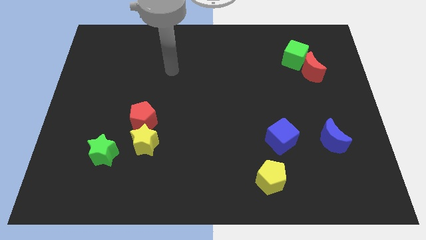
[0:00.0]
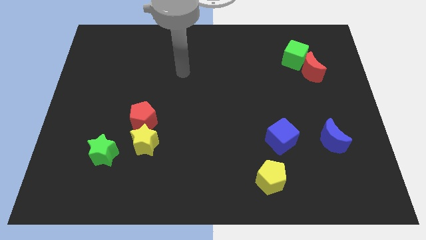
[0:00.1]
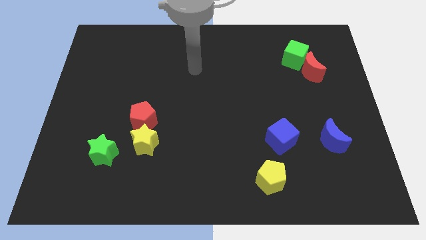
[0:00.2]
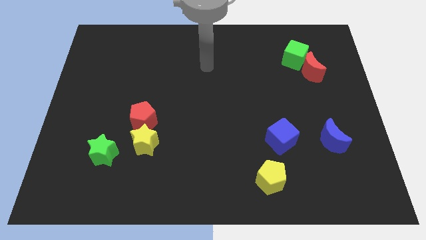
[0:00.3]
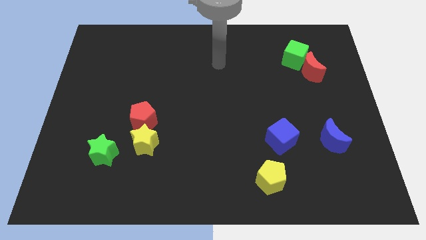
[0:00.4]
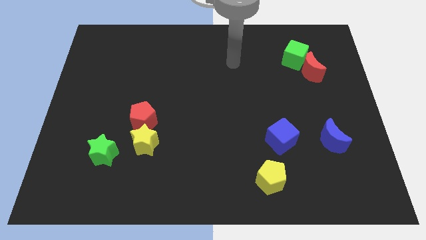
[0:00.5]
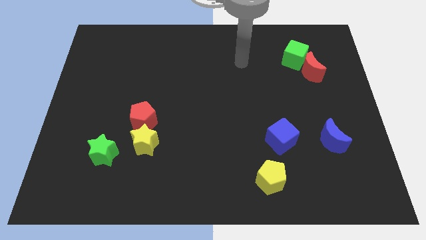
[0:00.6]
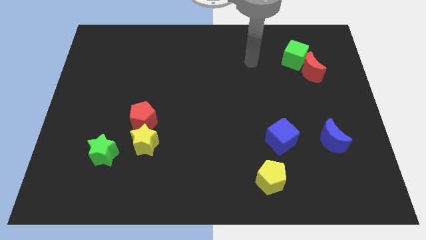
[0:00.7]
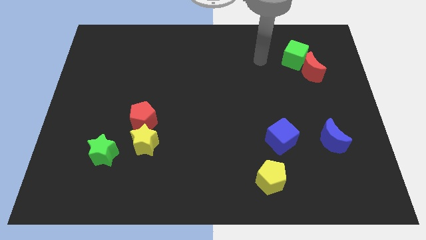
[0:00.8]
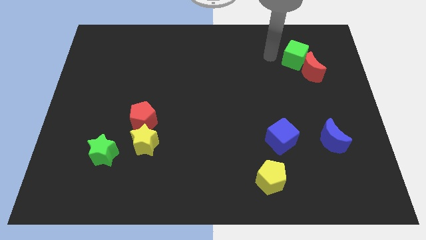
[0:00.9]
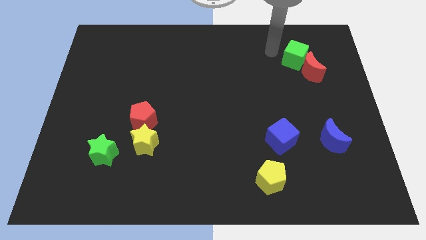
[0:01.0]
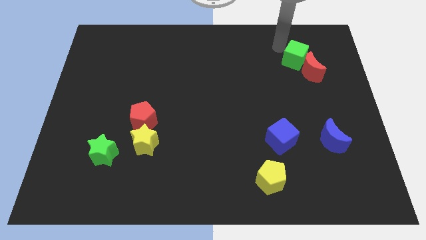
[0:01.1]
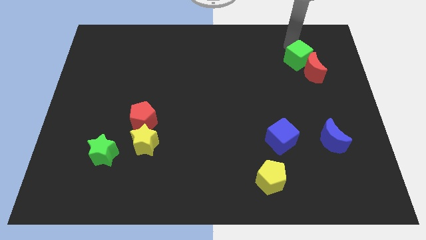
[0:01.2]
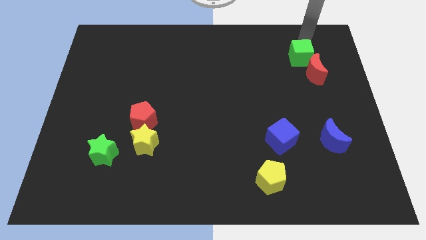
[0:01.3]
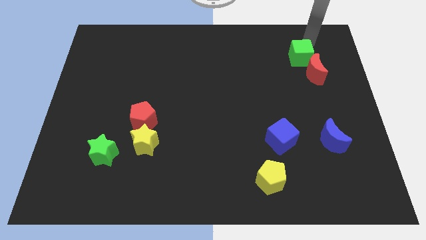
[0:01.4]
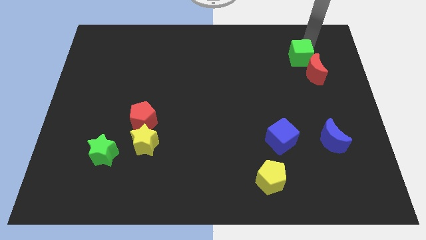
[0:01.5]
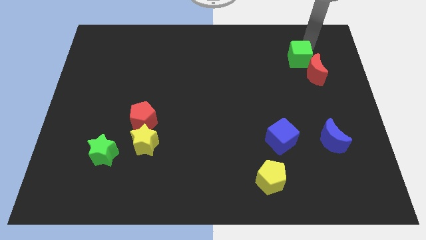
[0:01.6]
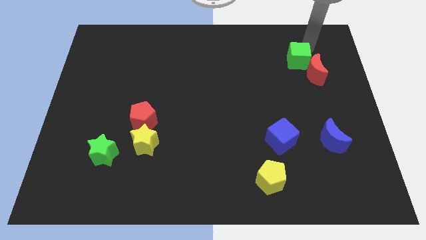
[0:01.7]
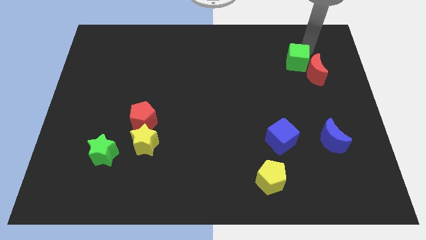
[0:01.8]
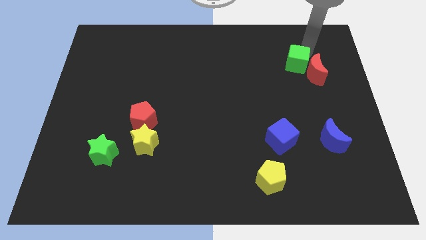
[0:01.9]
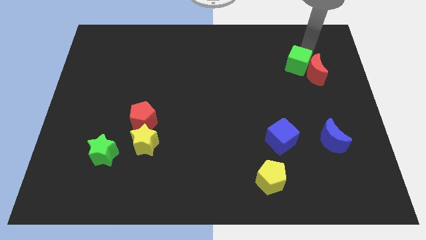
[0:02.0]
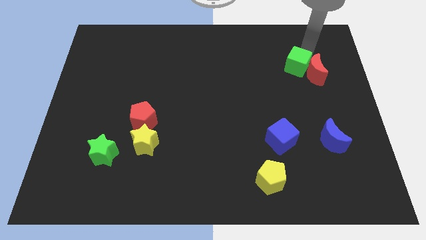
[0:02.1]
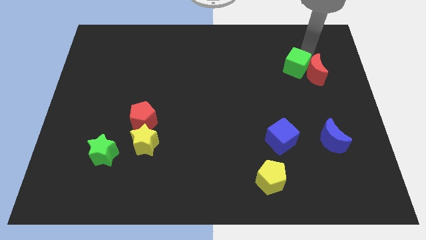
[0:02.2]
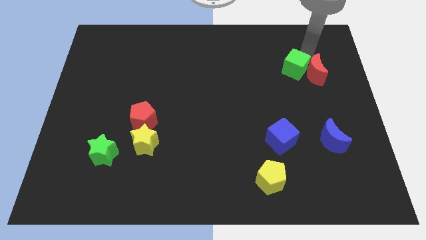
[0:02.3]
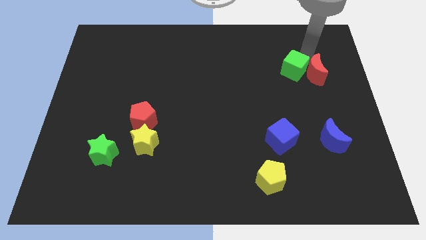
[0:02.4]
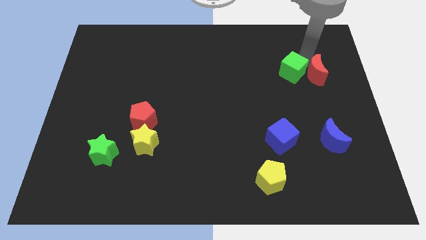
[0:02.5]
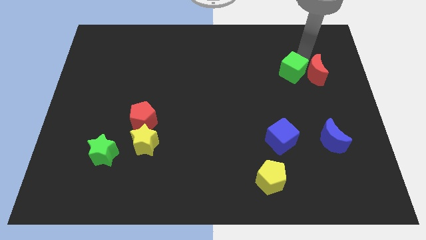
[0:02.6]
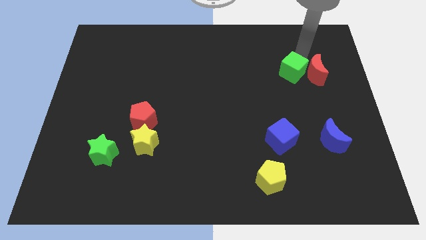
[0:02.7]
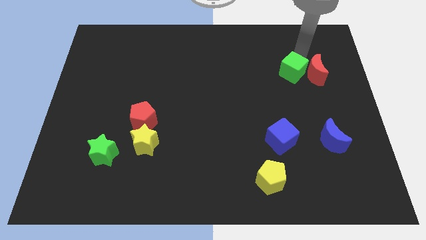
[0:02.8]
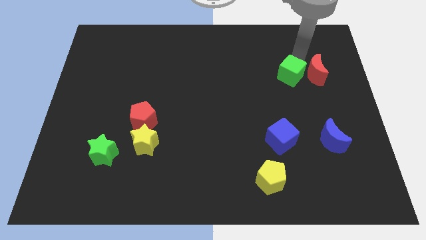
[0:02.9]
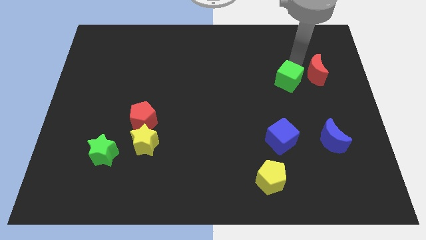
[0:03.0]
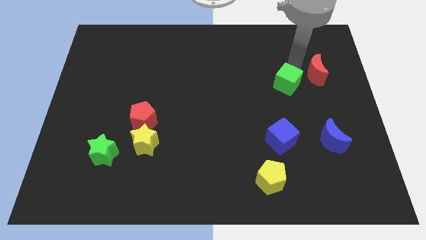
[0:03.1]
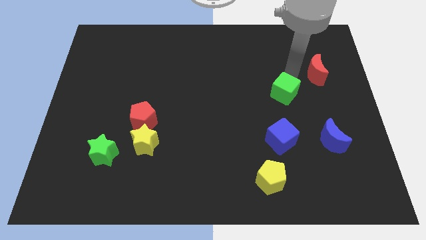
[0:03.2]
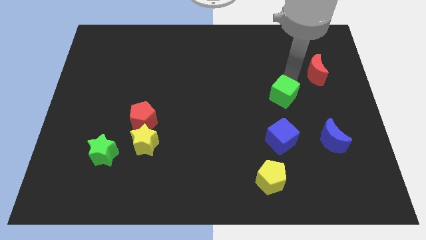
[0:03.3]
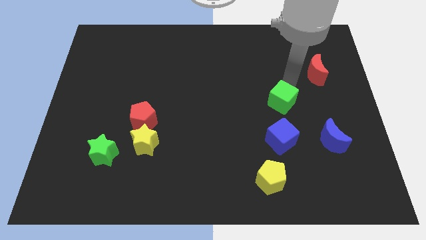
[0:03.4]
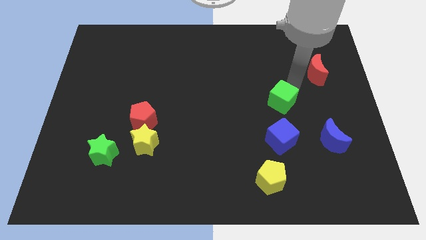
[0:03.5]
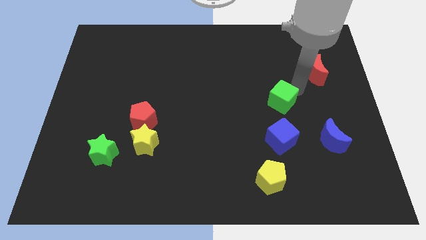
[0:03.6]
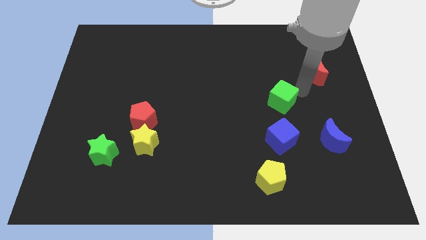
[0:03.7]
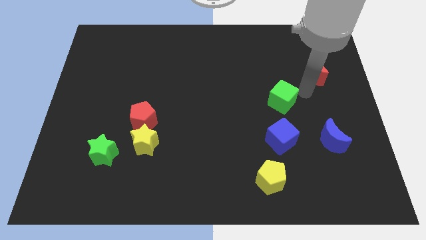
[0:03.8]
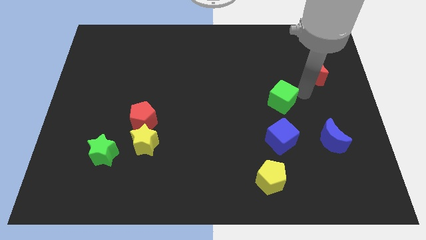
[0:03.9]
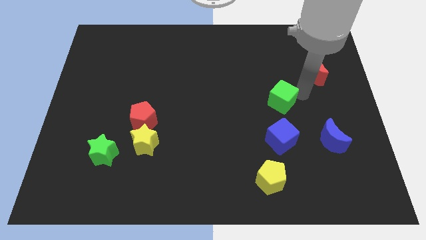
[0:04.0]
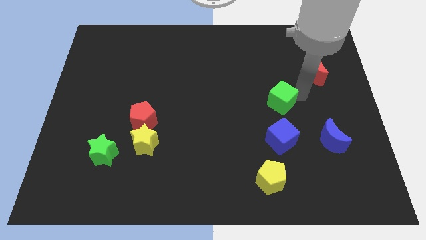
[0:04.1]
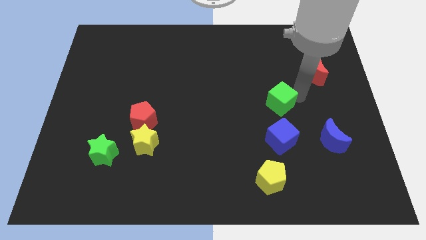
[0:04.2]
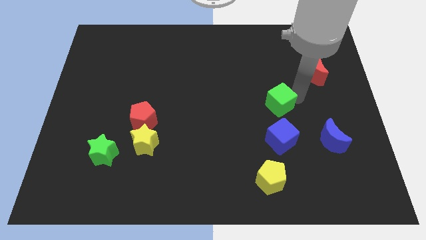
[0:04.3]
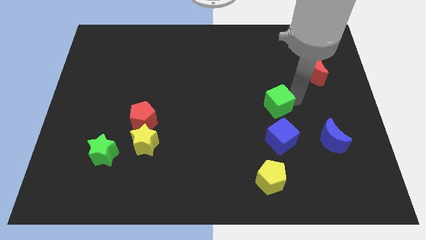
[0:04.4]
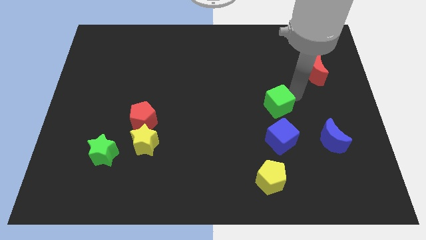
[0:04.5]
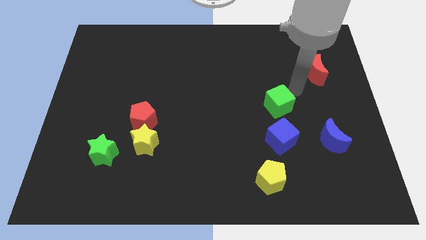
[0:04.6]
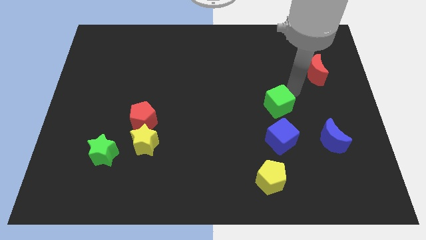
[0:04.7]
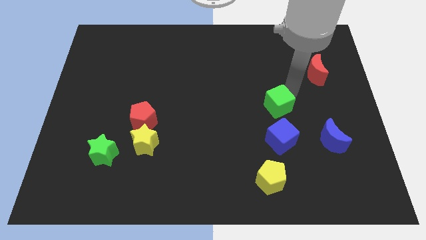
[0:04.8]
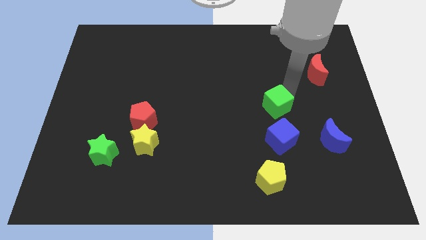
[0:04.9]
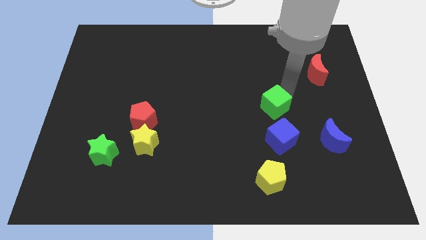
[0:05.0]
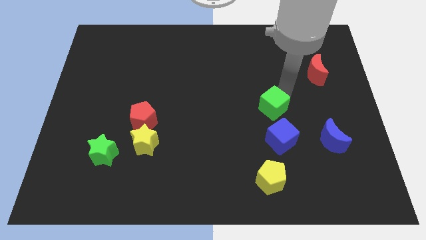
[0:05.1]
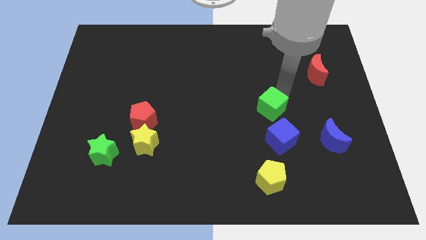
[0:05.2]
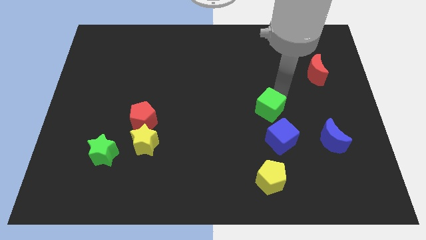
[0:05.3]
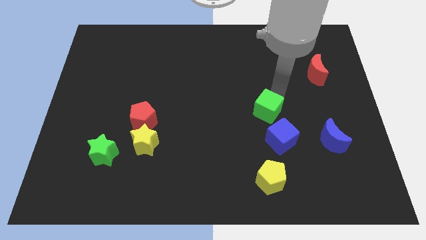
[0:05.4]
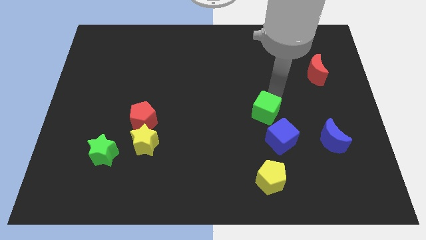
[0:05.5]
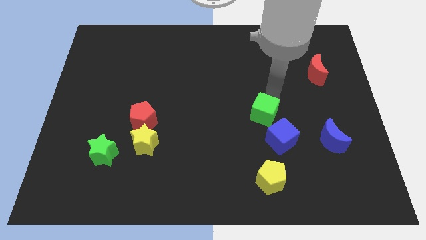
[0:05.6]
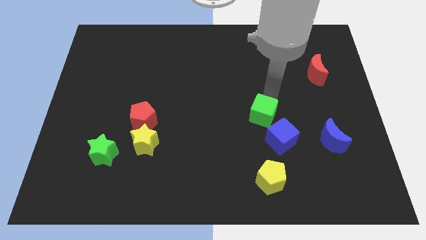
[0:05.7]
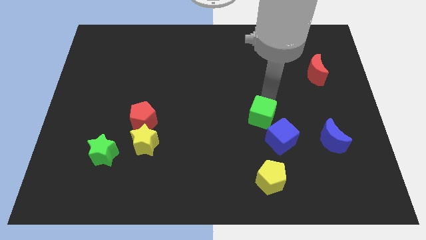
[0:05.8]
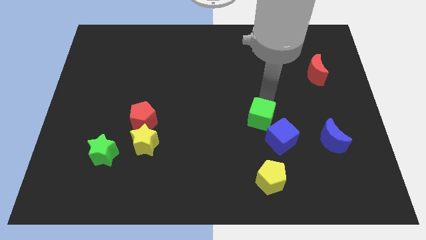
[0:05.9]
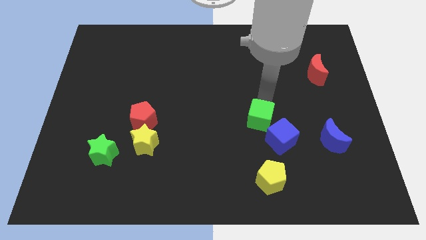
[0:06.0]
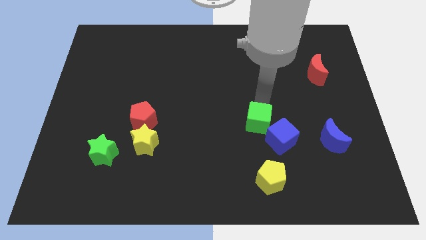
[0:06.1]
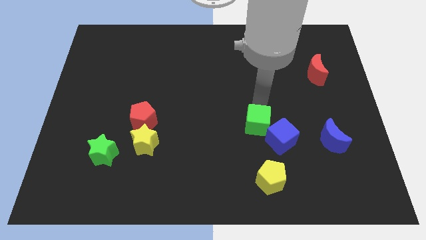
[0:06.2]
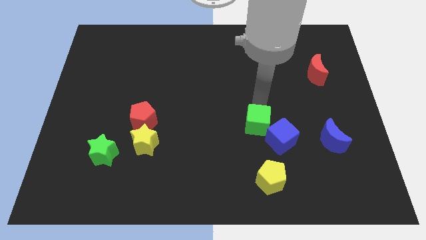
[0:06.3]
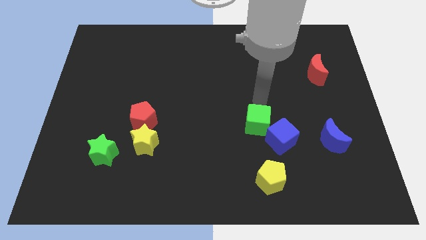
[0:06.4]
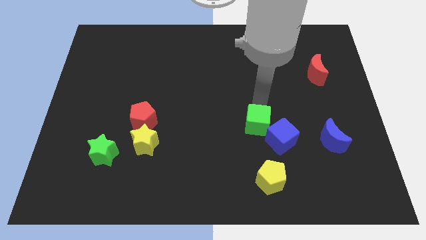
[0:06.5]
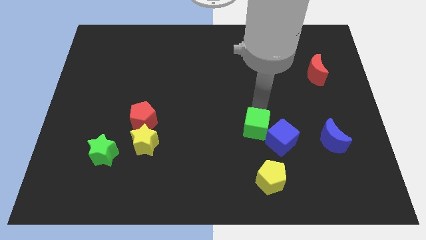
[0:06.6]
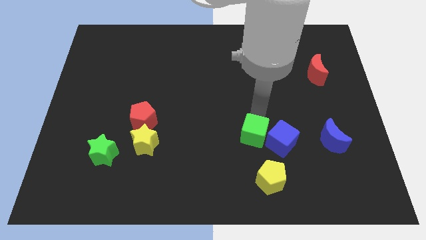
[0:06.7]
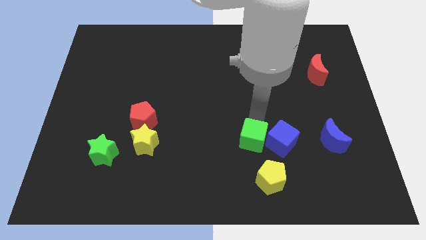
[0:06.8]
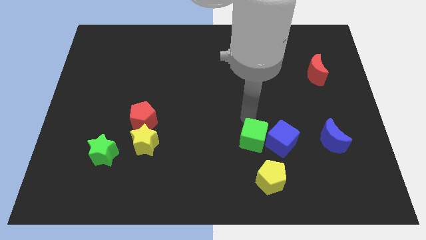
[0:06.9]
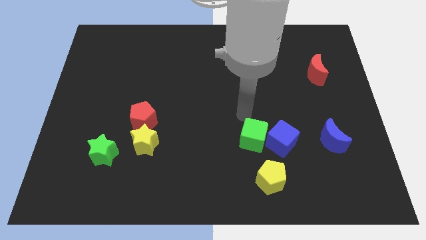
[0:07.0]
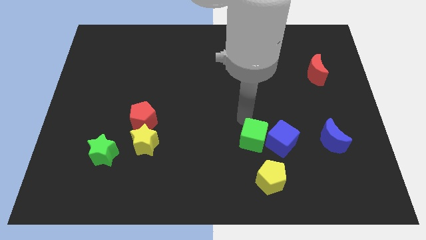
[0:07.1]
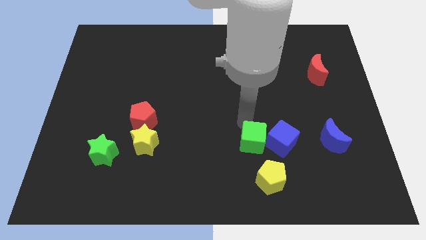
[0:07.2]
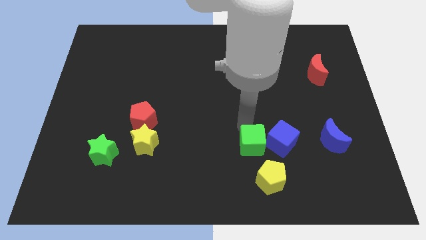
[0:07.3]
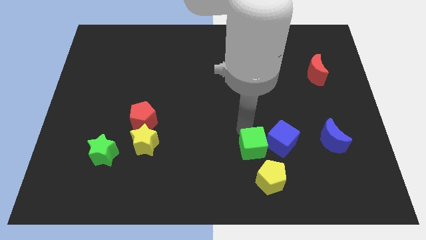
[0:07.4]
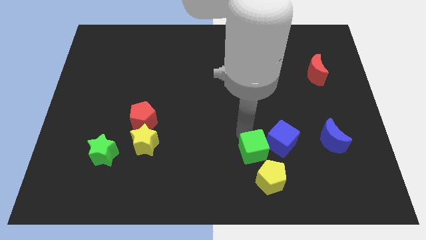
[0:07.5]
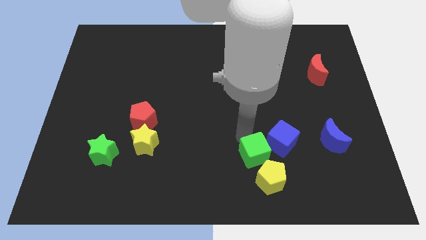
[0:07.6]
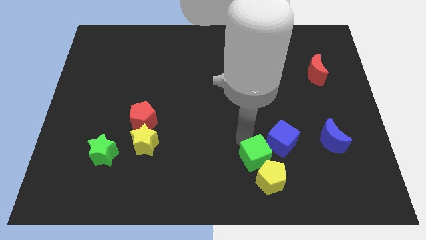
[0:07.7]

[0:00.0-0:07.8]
slide the green cube towards the yellow pentagon

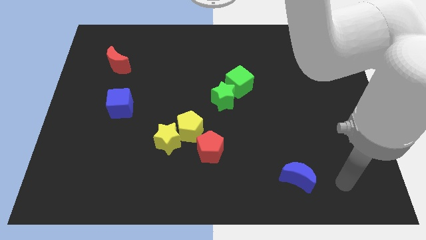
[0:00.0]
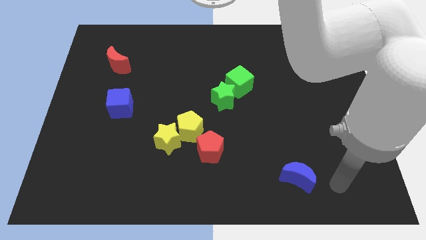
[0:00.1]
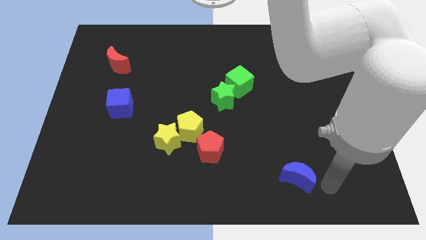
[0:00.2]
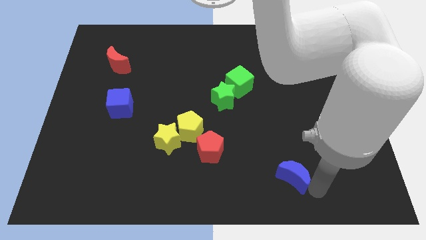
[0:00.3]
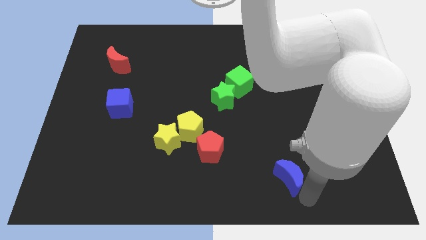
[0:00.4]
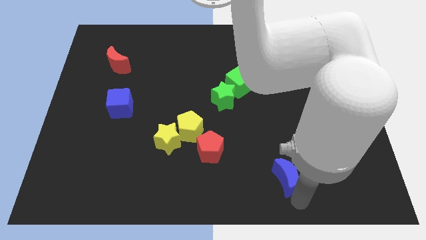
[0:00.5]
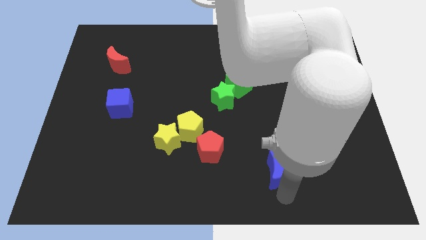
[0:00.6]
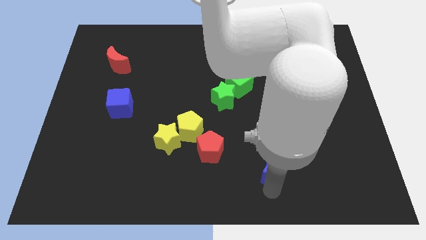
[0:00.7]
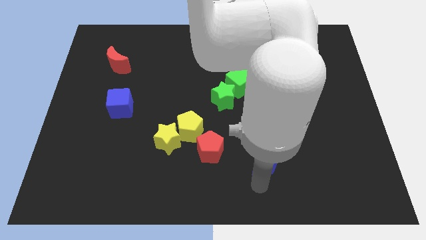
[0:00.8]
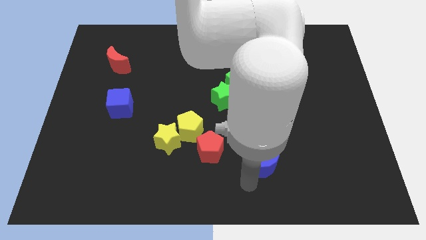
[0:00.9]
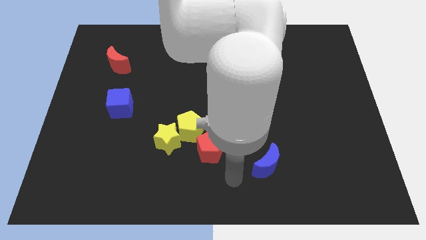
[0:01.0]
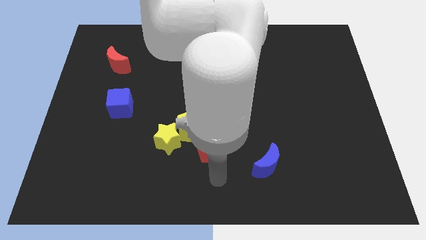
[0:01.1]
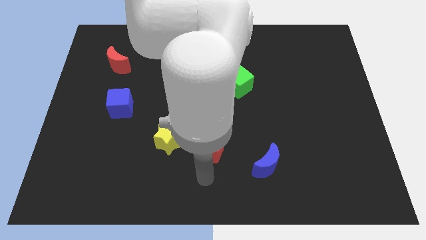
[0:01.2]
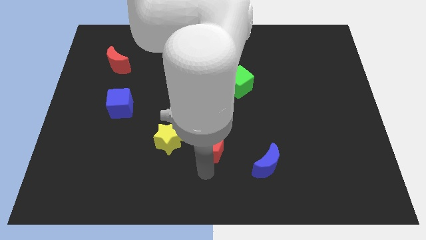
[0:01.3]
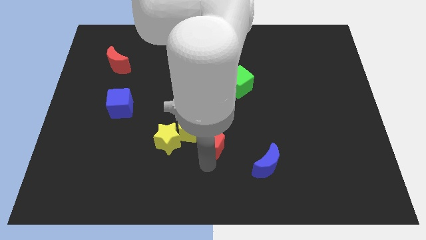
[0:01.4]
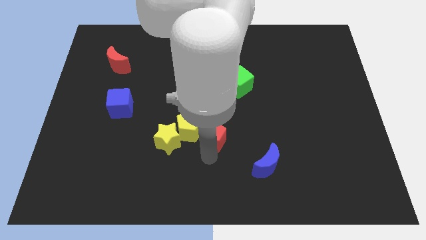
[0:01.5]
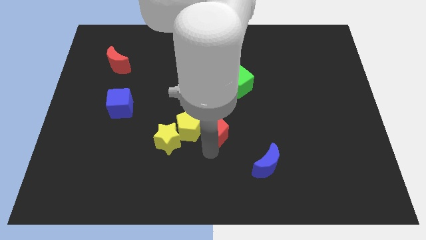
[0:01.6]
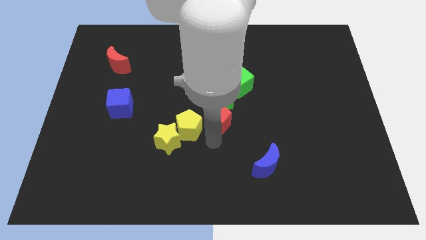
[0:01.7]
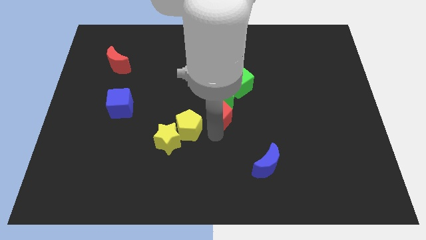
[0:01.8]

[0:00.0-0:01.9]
push the red pentagon towards the green star
